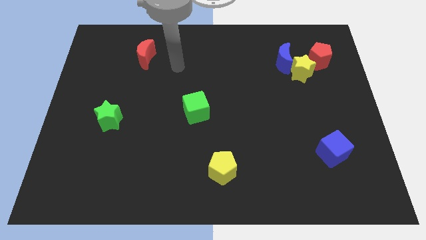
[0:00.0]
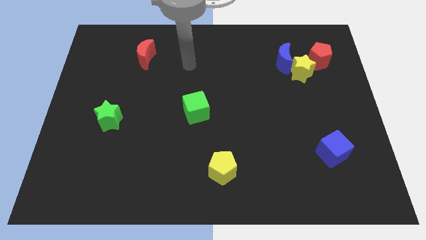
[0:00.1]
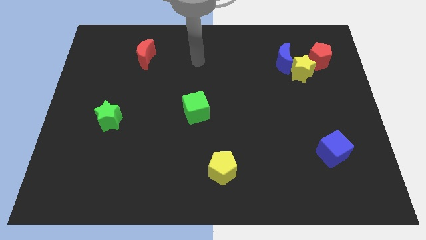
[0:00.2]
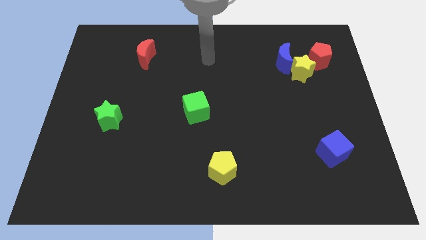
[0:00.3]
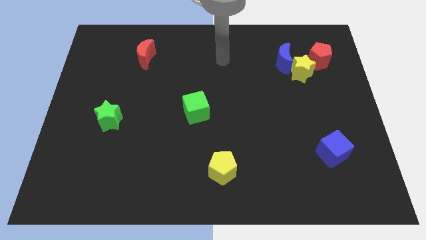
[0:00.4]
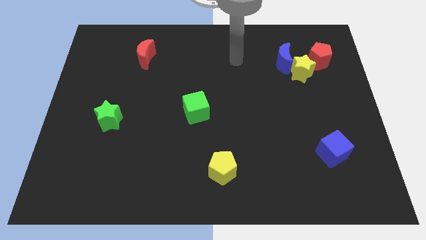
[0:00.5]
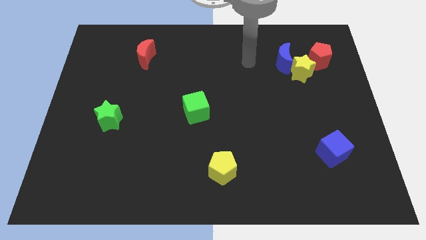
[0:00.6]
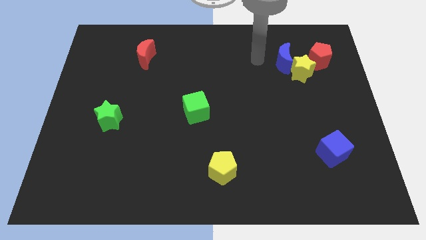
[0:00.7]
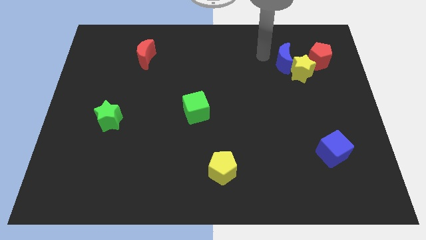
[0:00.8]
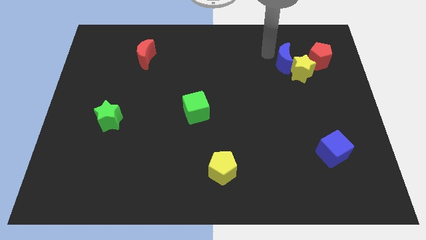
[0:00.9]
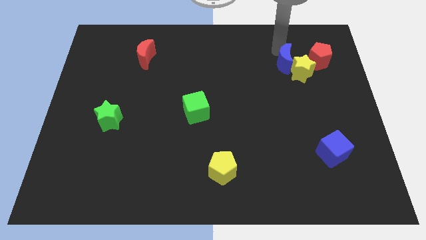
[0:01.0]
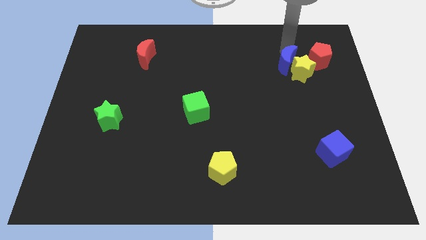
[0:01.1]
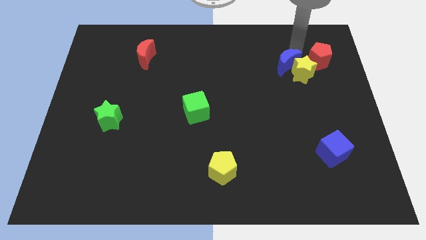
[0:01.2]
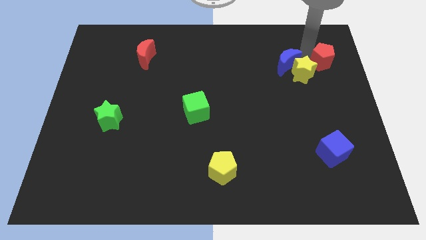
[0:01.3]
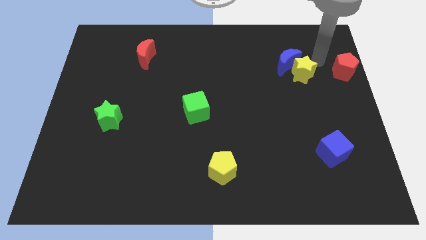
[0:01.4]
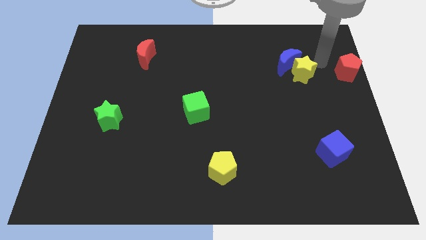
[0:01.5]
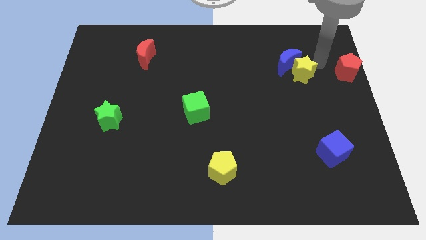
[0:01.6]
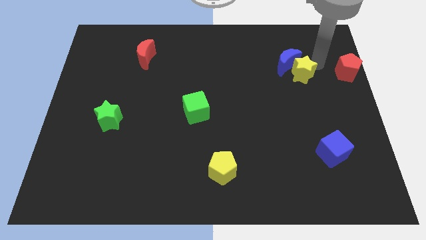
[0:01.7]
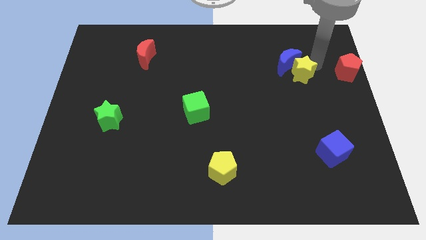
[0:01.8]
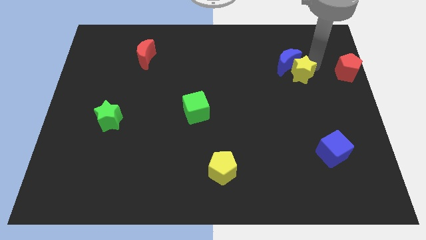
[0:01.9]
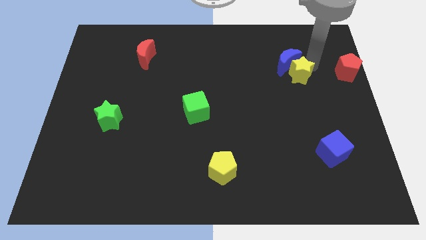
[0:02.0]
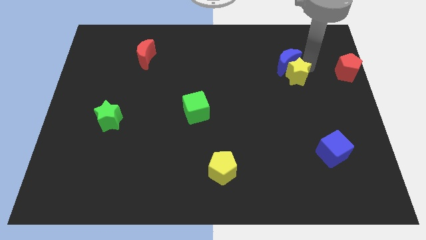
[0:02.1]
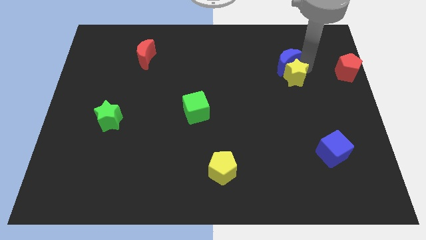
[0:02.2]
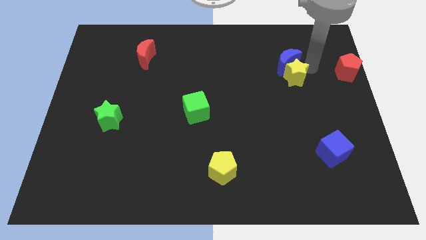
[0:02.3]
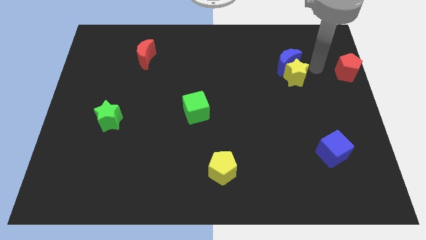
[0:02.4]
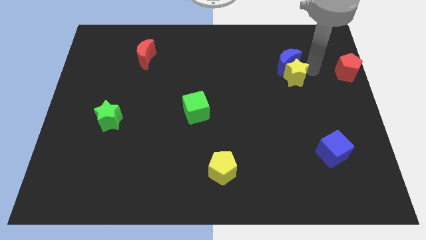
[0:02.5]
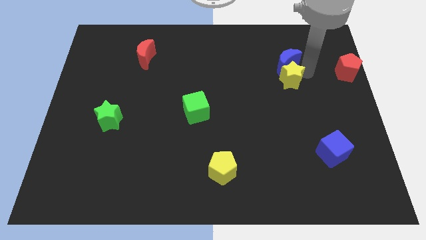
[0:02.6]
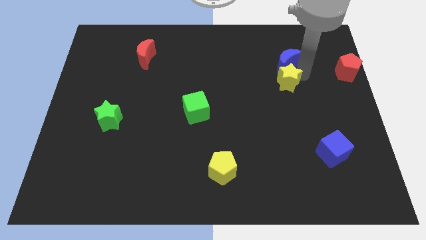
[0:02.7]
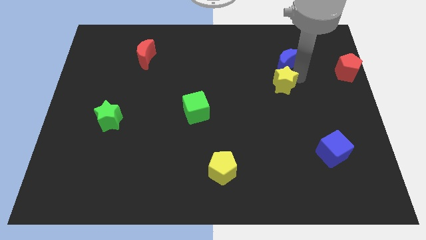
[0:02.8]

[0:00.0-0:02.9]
move the yellow star away from the blue moon and red pentagon

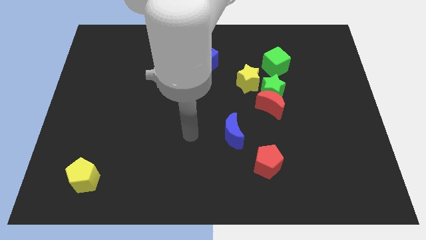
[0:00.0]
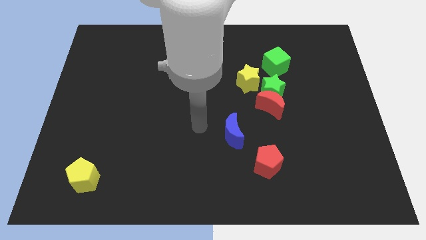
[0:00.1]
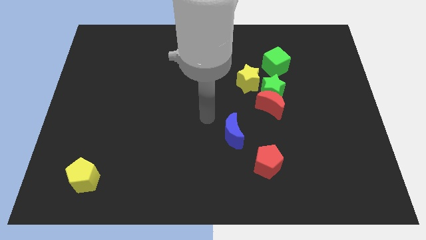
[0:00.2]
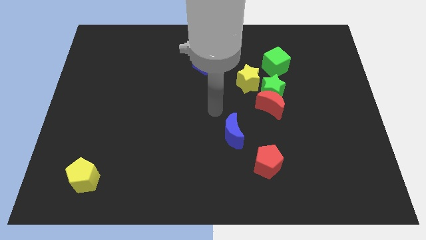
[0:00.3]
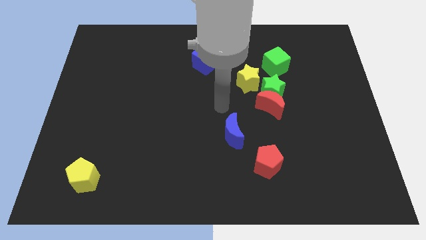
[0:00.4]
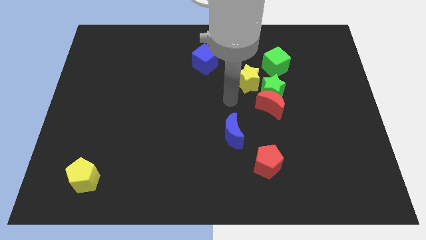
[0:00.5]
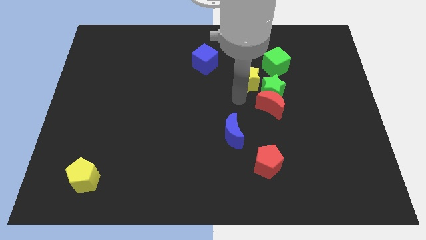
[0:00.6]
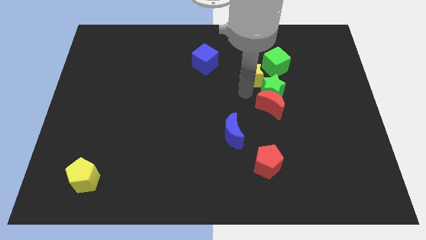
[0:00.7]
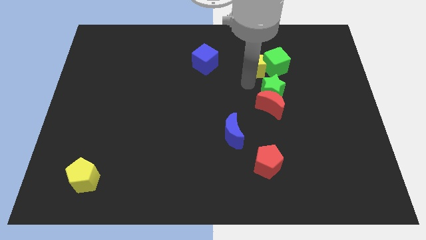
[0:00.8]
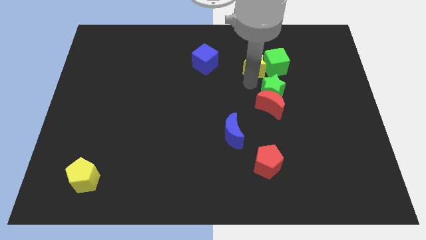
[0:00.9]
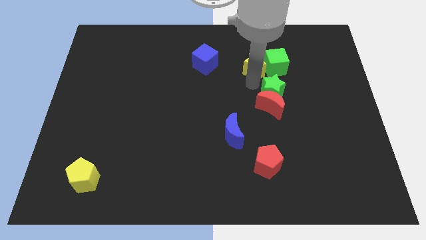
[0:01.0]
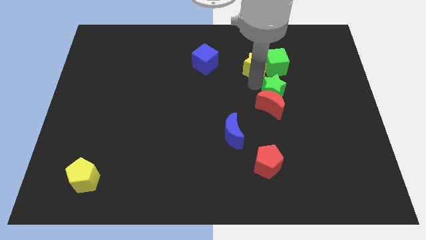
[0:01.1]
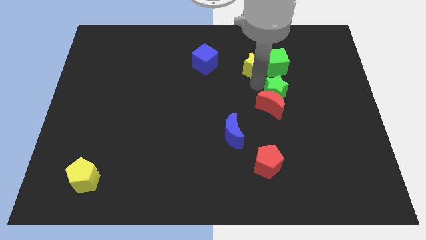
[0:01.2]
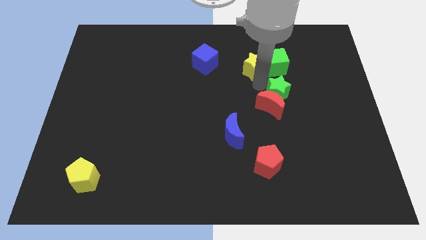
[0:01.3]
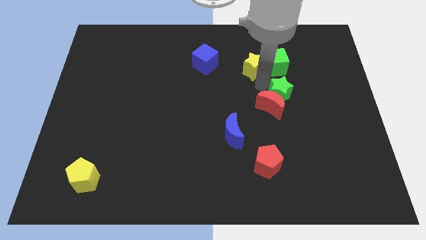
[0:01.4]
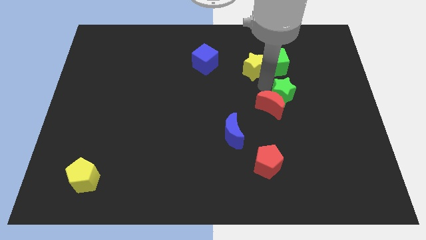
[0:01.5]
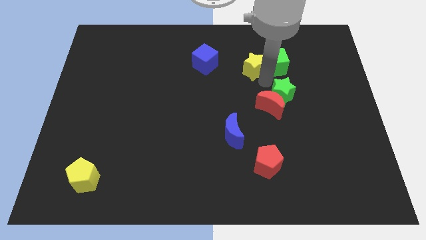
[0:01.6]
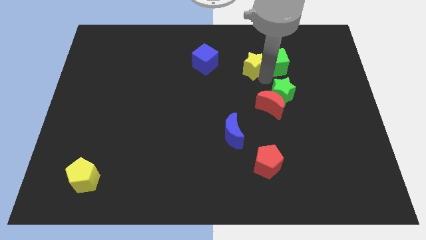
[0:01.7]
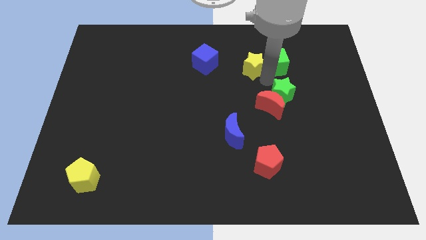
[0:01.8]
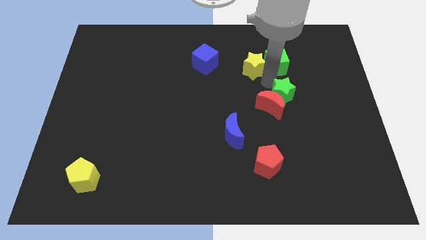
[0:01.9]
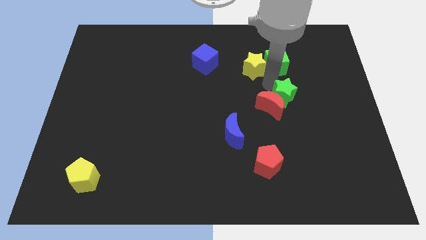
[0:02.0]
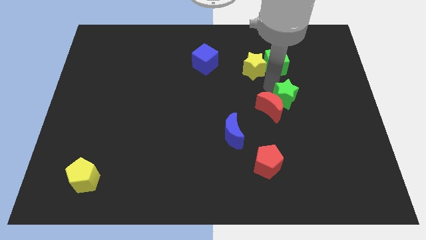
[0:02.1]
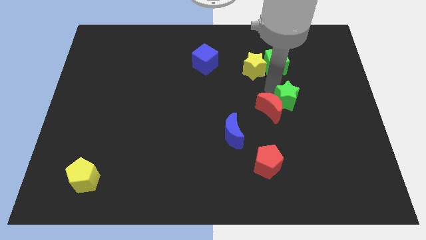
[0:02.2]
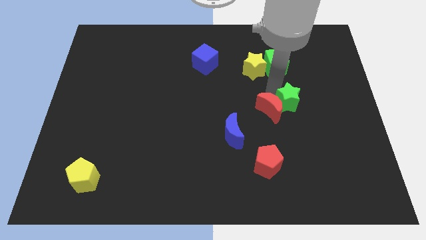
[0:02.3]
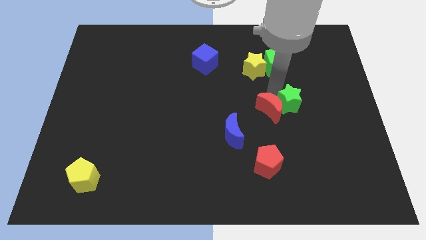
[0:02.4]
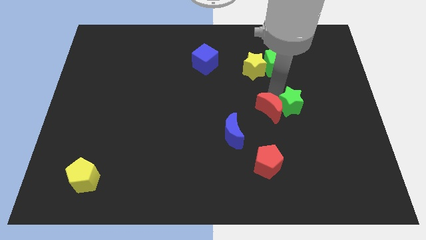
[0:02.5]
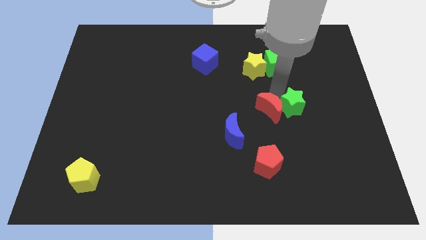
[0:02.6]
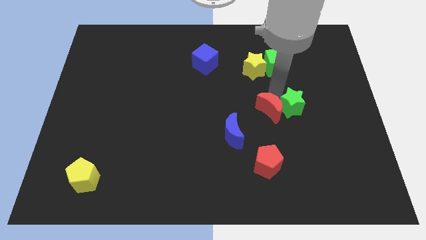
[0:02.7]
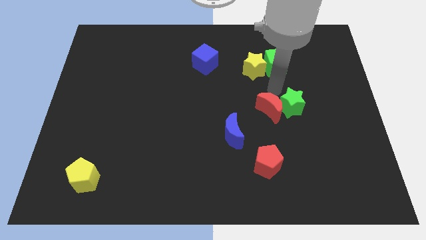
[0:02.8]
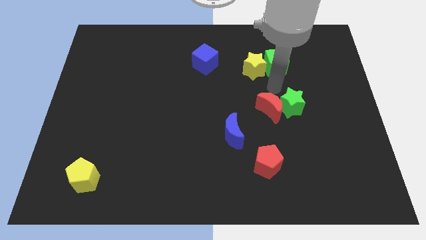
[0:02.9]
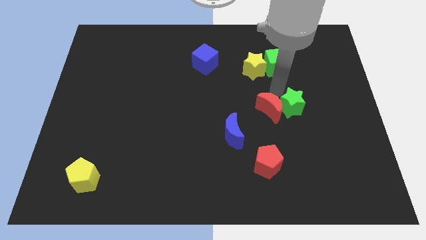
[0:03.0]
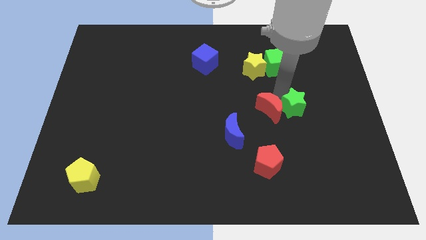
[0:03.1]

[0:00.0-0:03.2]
separate the green star from the clump

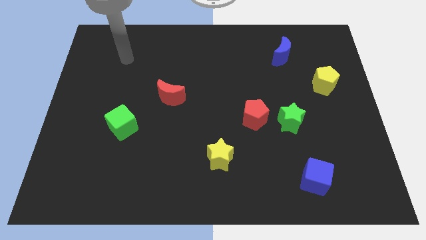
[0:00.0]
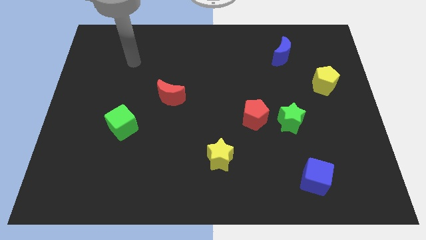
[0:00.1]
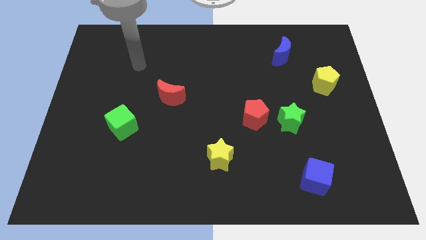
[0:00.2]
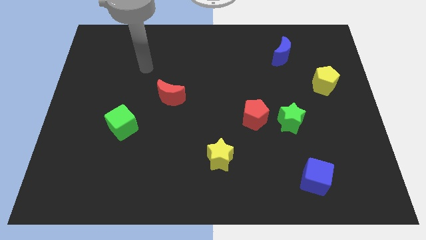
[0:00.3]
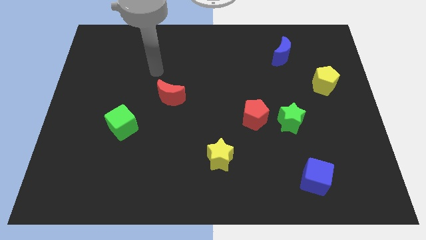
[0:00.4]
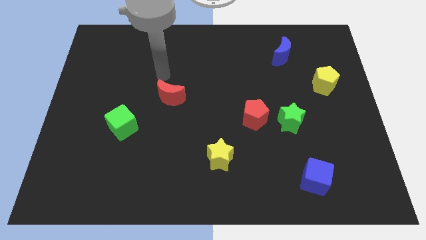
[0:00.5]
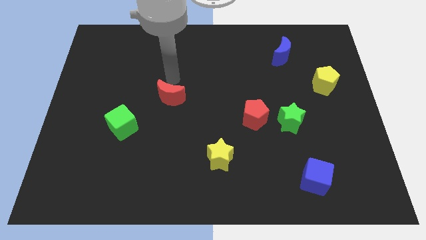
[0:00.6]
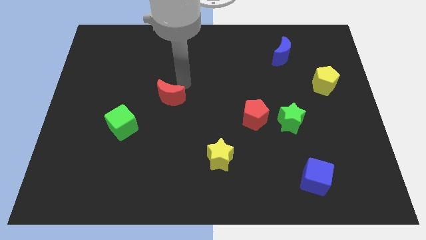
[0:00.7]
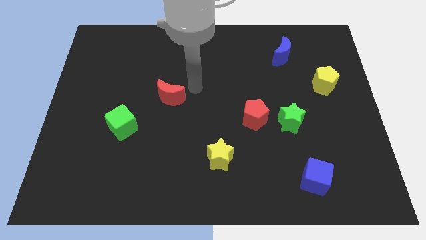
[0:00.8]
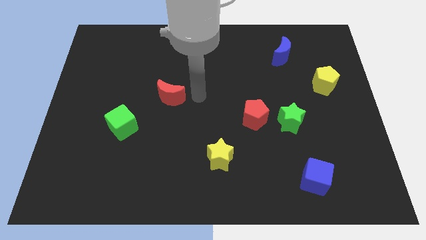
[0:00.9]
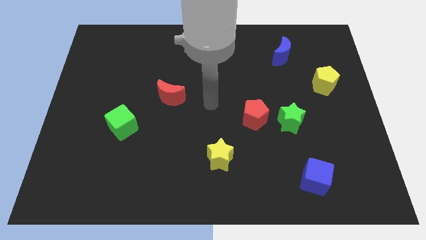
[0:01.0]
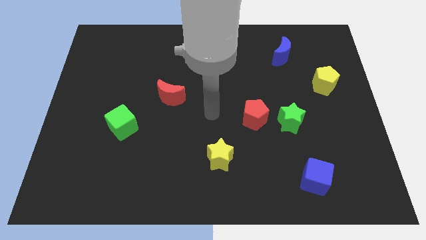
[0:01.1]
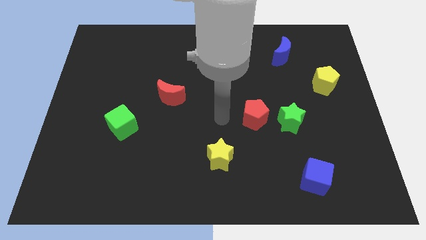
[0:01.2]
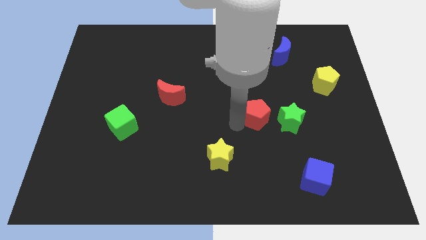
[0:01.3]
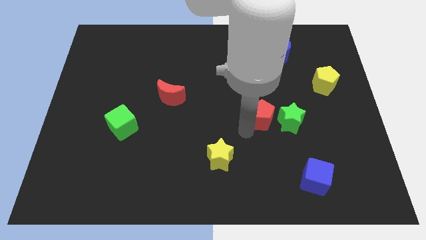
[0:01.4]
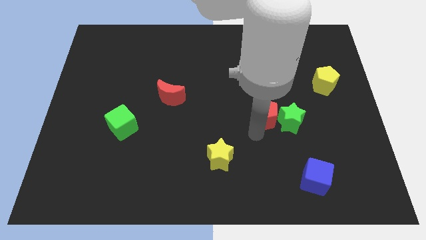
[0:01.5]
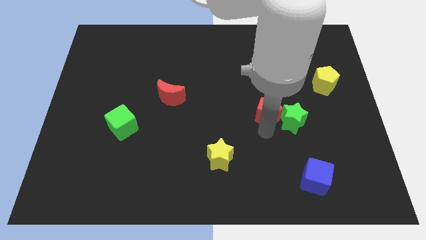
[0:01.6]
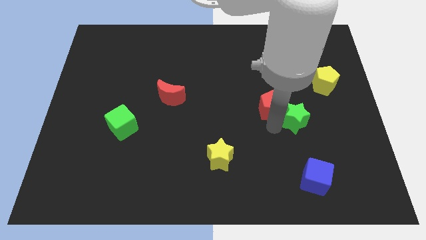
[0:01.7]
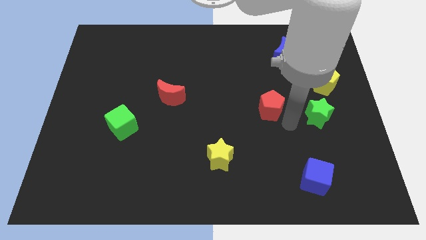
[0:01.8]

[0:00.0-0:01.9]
separate the red pentagon from the green star

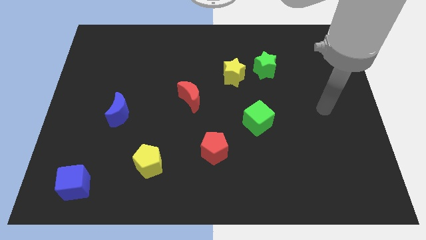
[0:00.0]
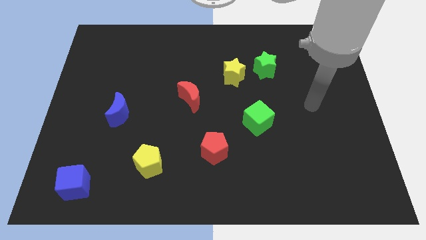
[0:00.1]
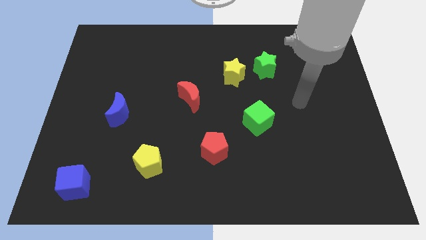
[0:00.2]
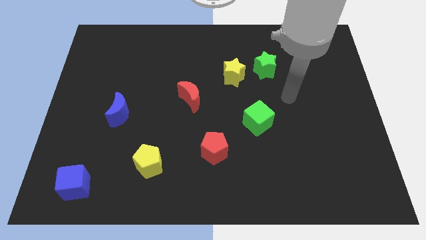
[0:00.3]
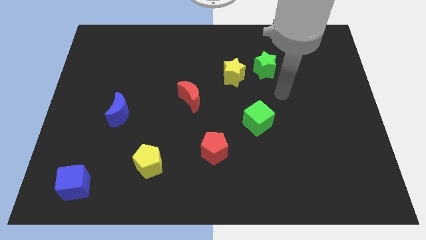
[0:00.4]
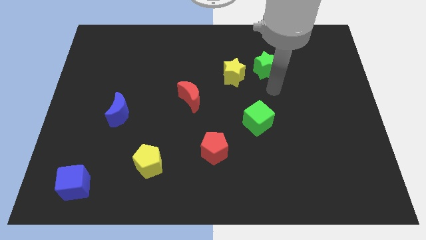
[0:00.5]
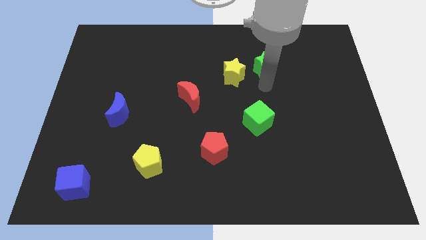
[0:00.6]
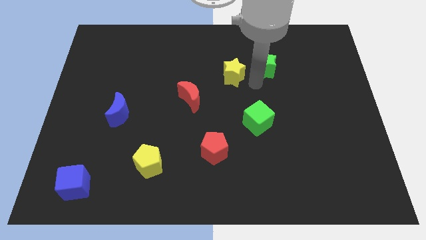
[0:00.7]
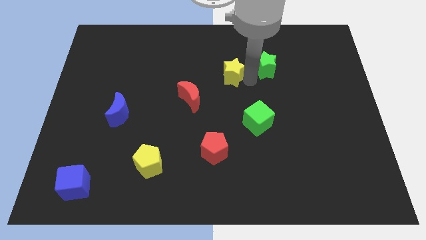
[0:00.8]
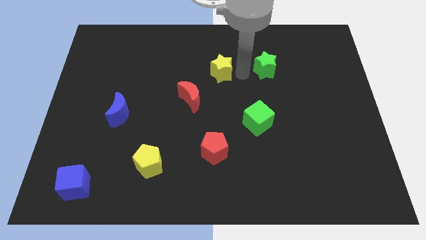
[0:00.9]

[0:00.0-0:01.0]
move the green star away from the yellow star

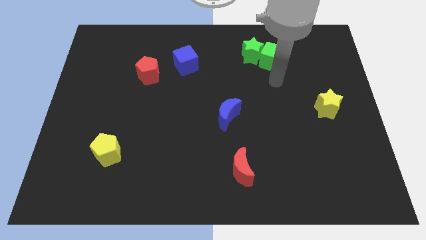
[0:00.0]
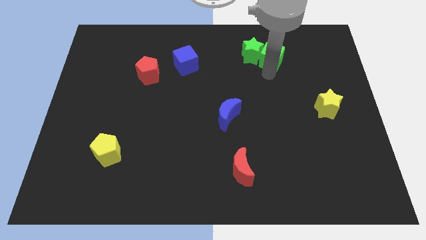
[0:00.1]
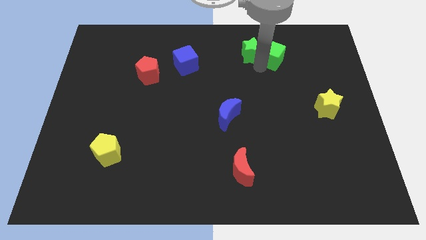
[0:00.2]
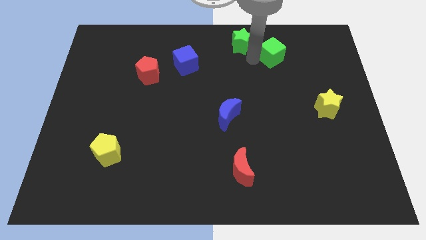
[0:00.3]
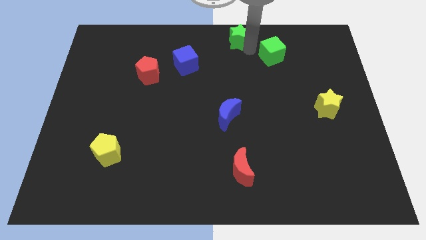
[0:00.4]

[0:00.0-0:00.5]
move the green cube away from the green star

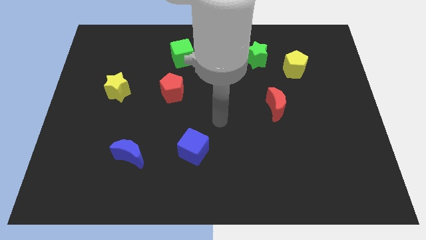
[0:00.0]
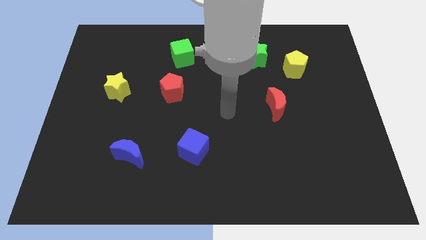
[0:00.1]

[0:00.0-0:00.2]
separate the green star from the yellow pentagon
